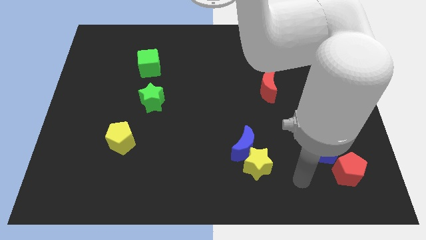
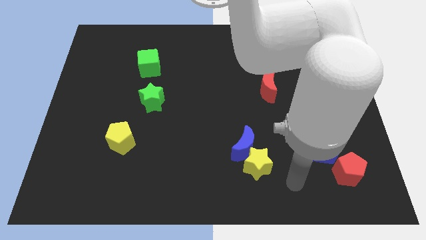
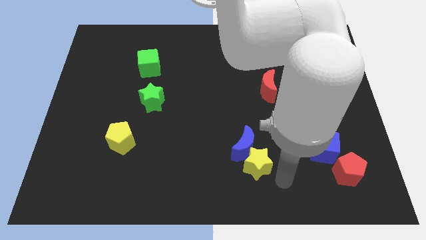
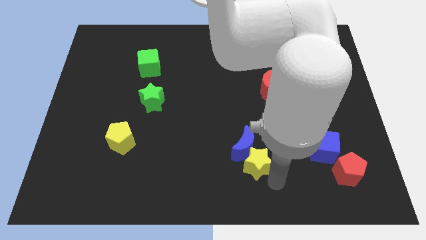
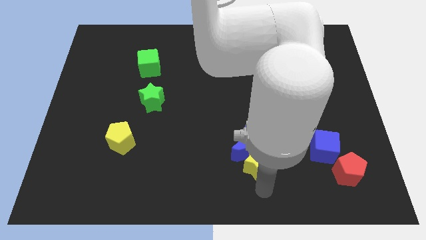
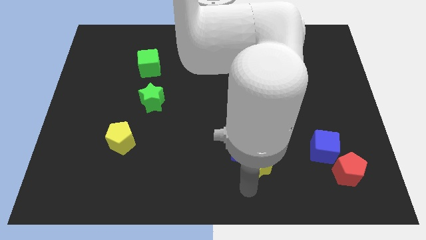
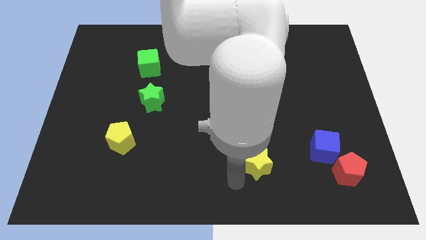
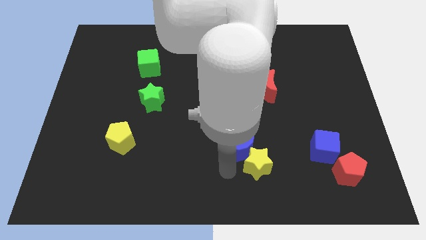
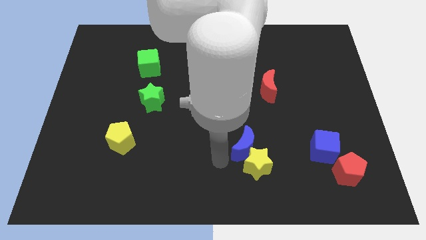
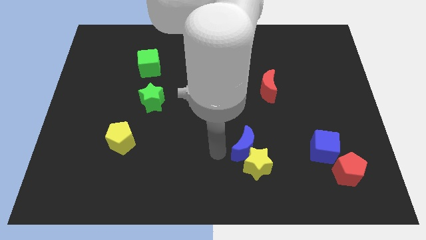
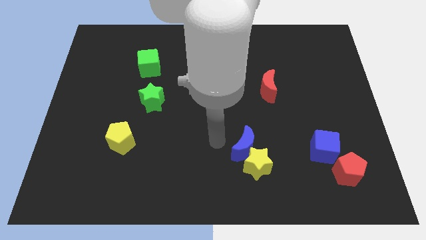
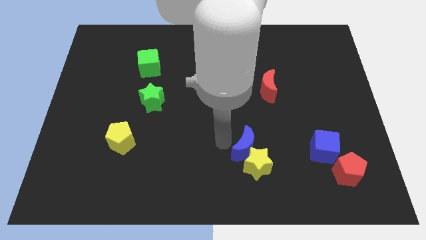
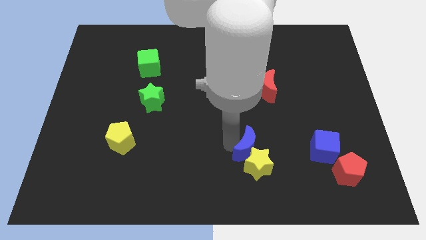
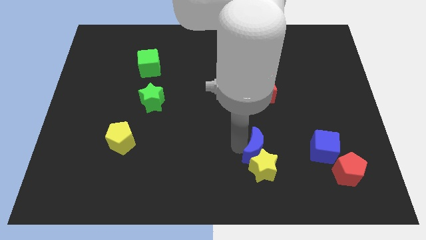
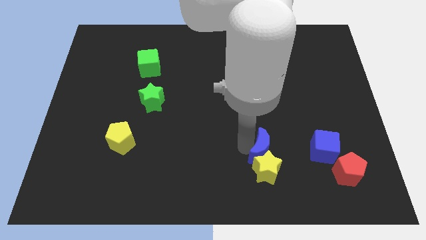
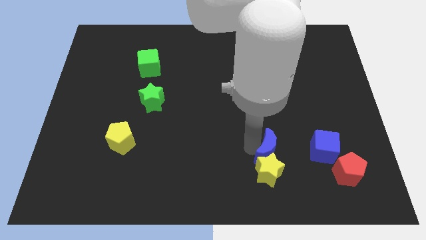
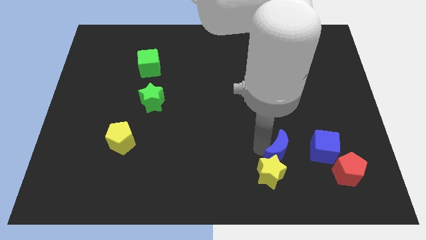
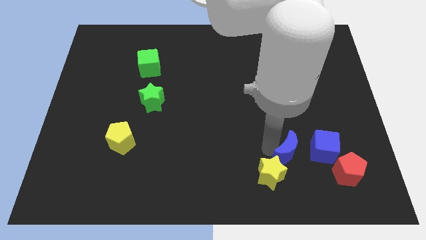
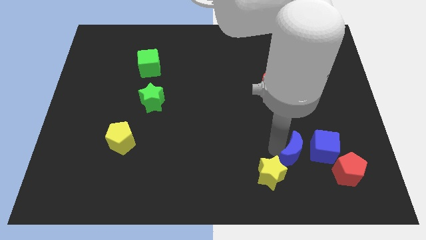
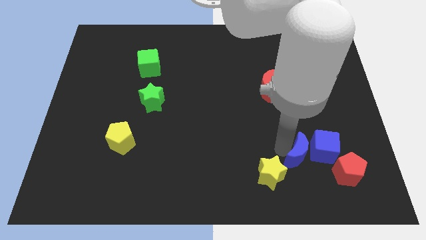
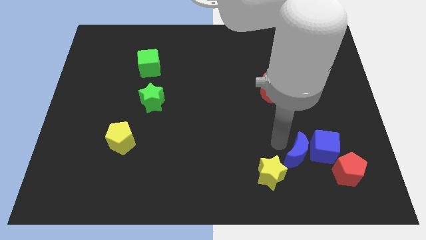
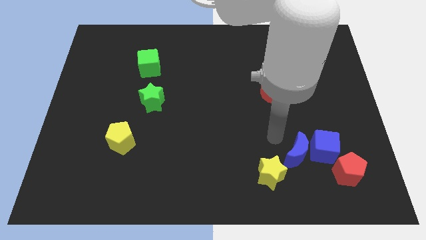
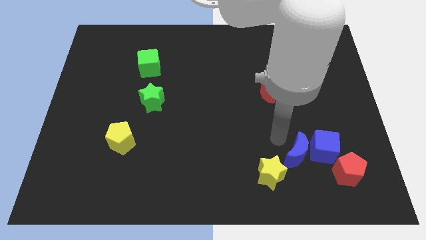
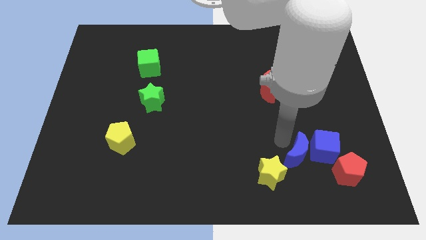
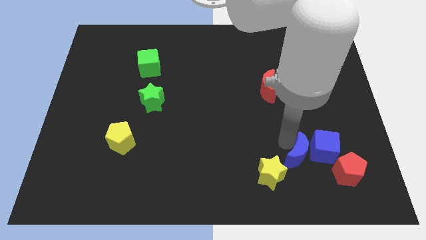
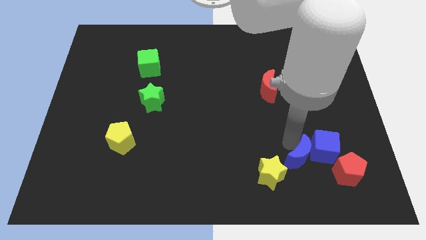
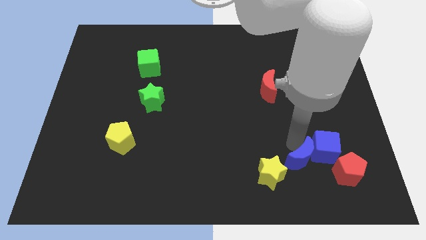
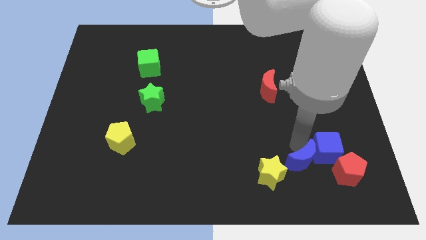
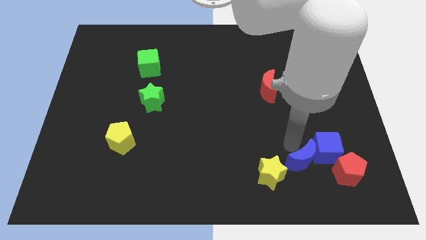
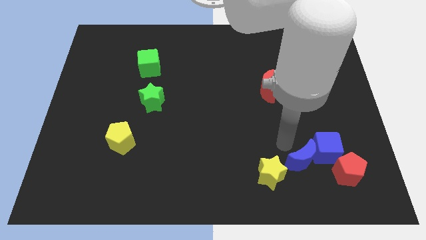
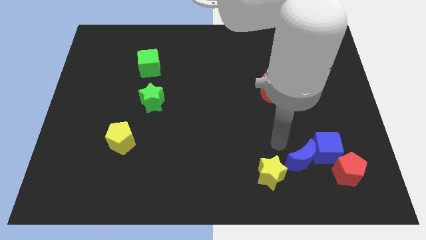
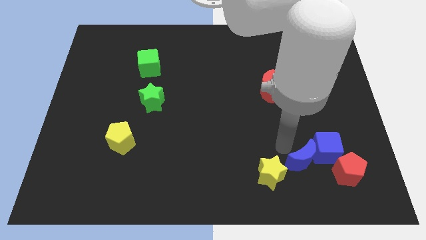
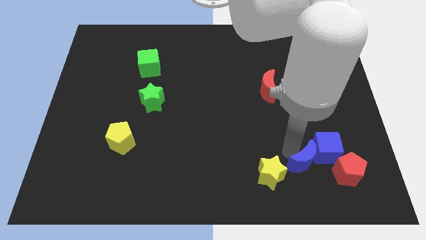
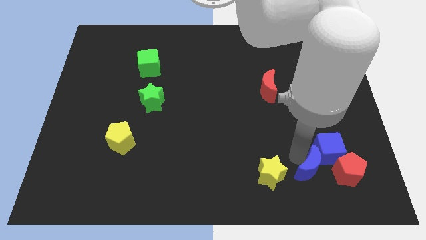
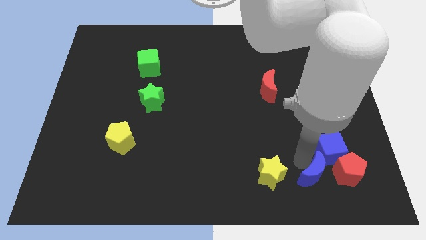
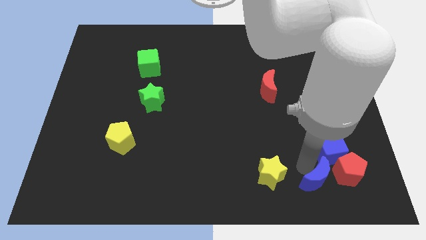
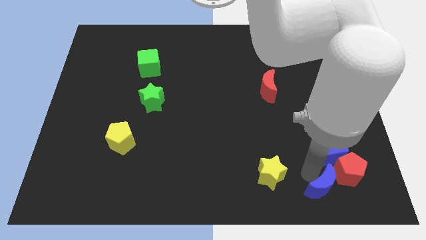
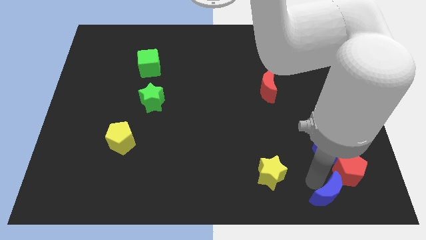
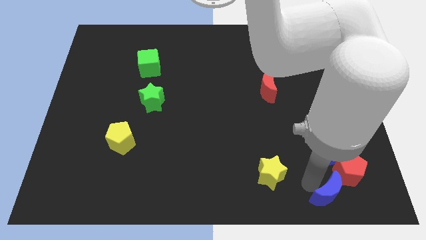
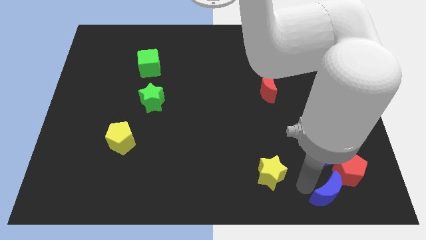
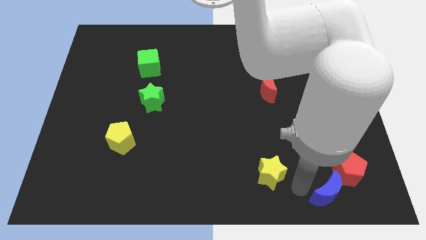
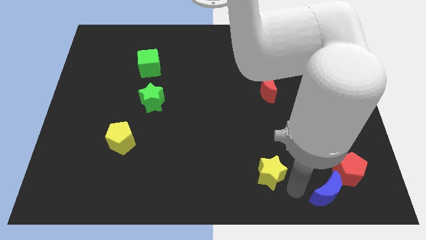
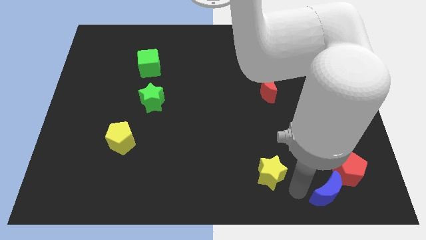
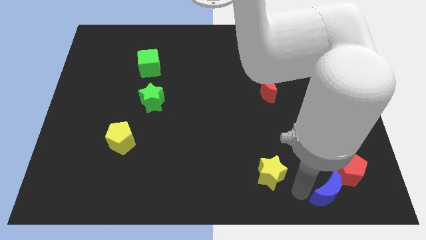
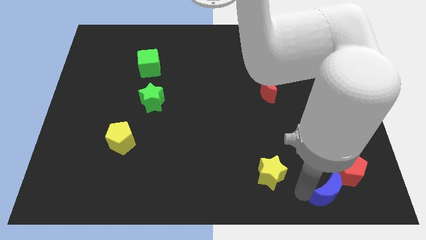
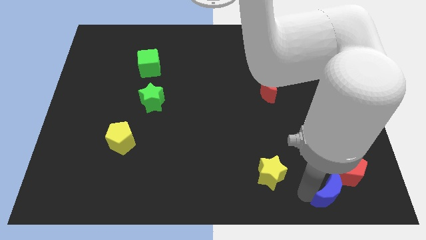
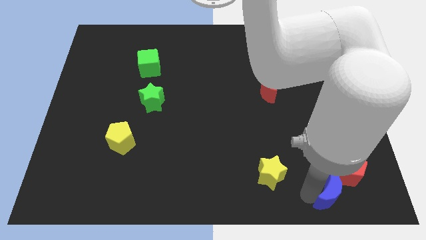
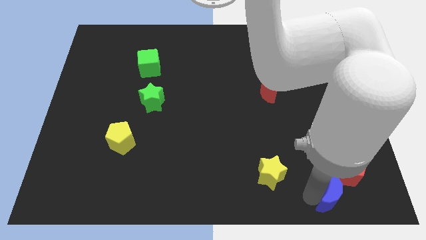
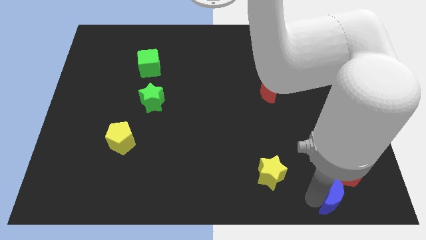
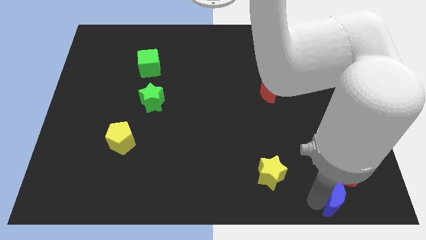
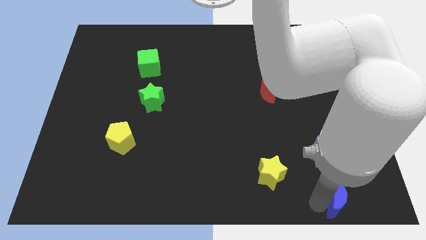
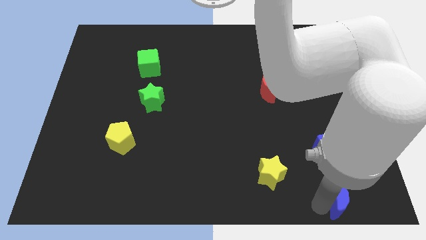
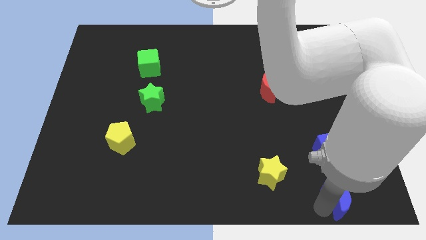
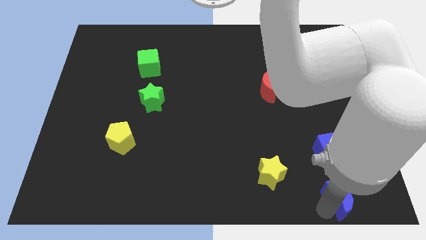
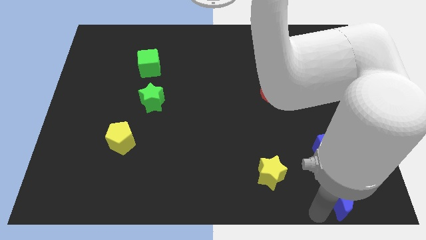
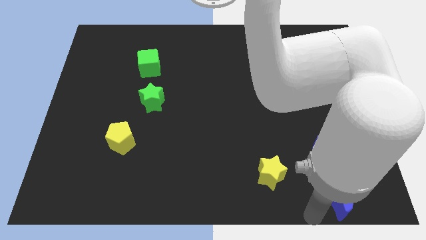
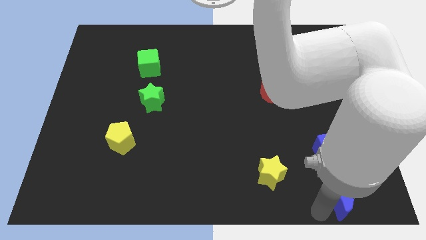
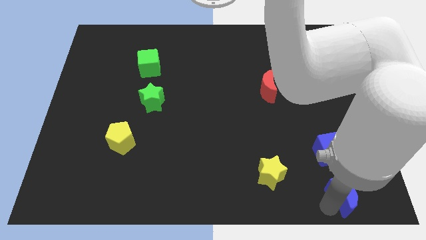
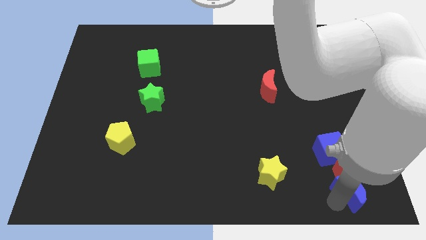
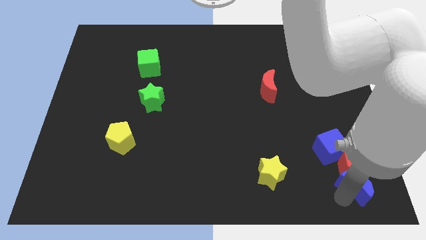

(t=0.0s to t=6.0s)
move the blue moon diagonally down and to the right of the blue cube

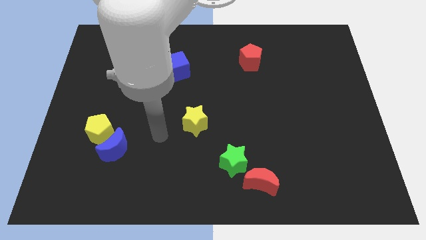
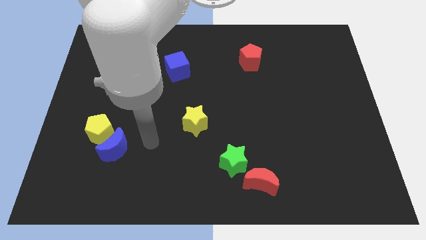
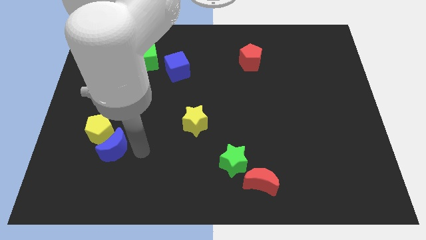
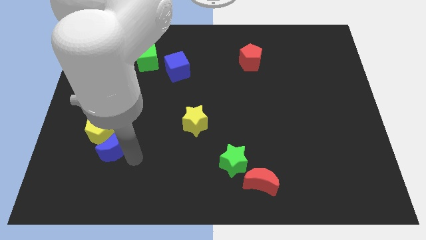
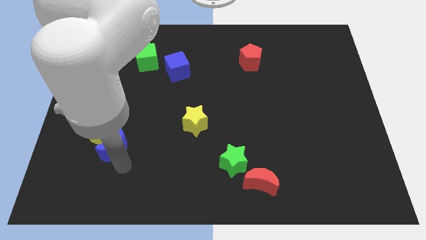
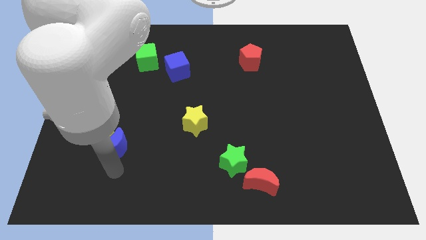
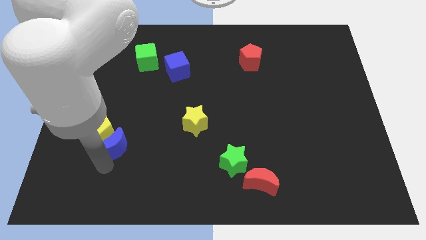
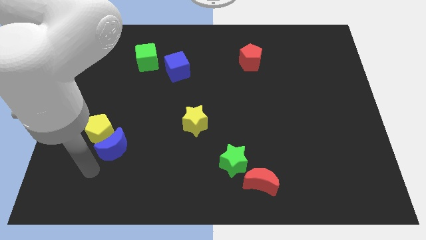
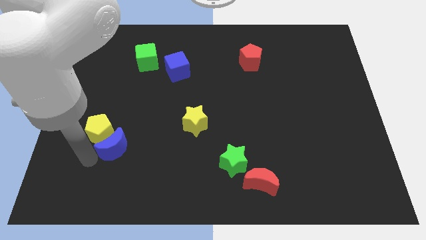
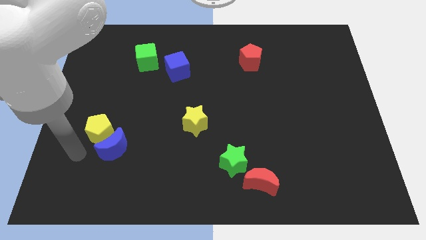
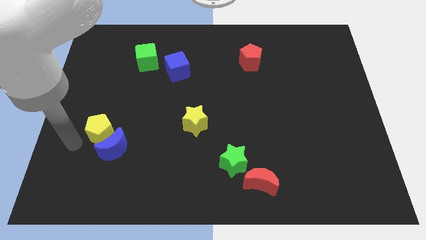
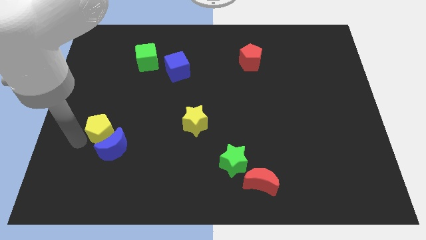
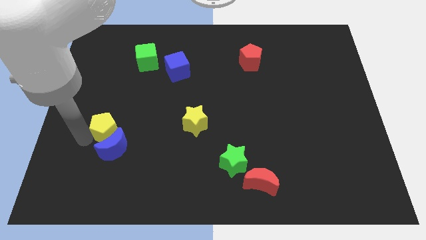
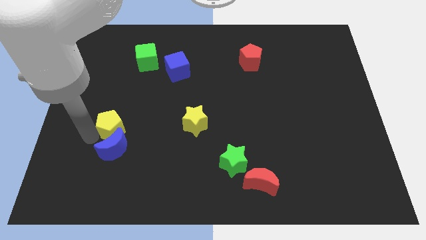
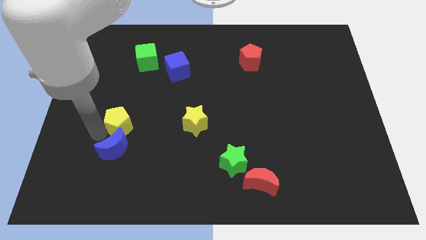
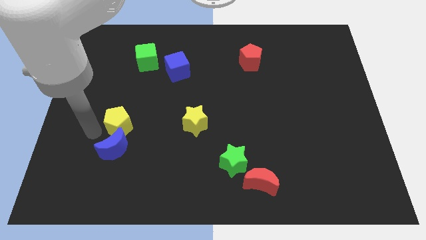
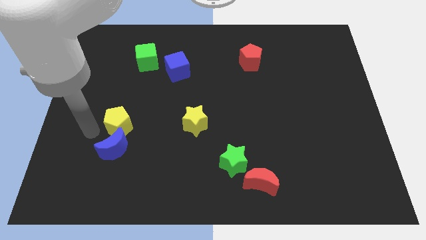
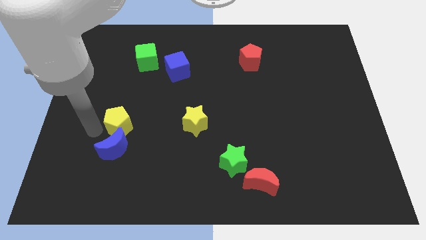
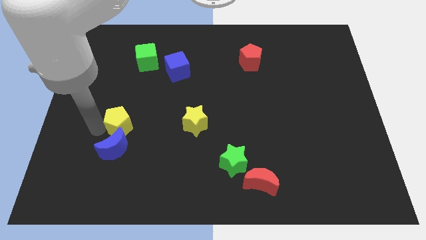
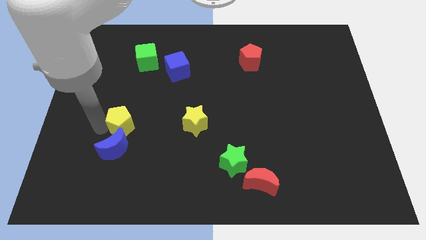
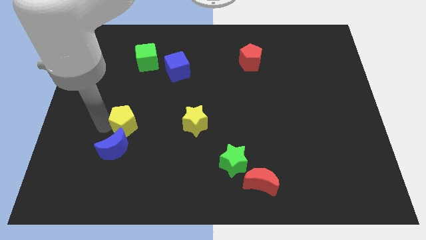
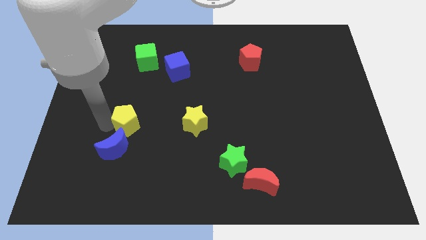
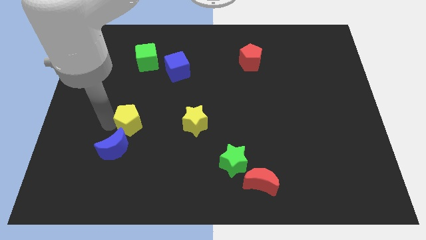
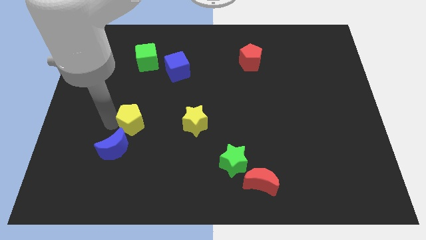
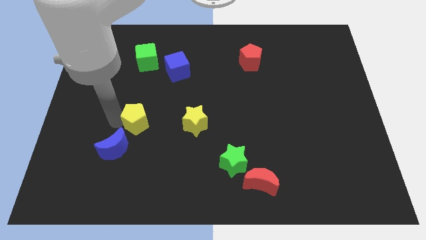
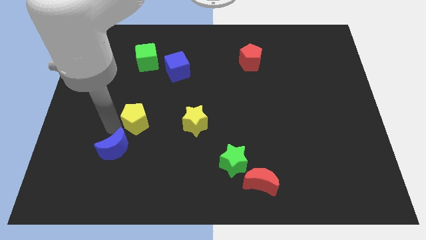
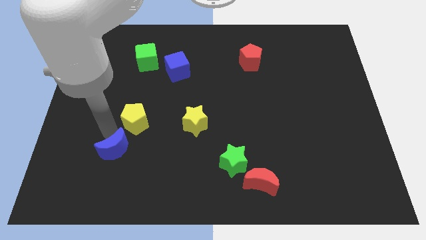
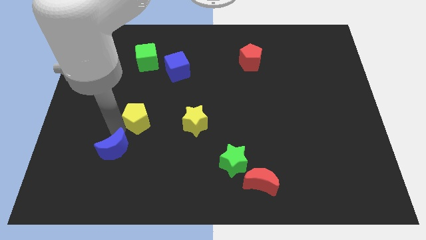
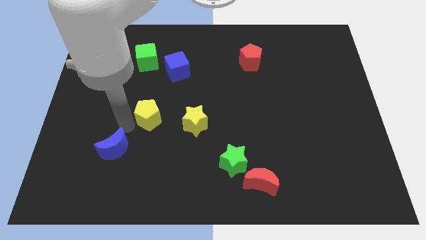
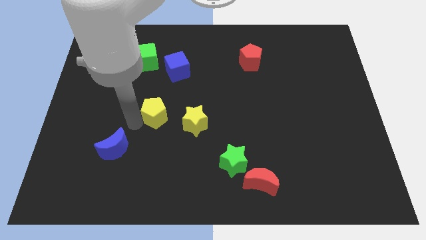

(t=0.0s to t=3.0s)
move the yellow pentagon diagonally up and to the left of the yellow star
